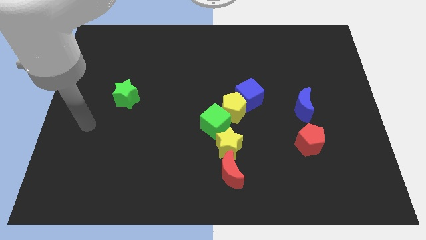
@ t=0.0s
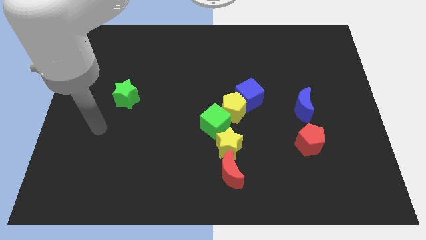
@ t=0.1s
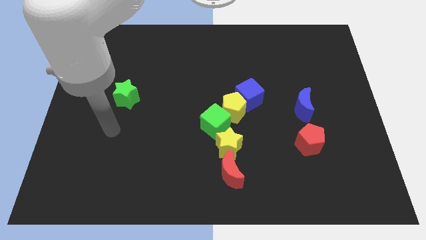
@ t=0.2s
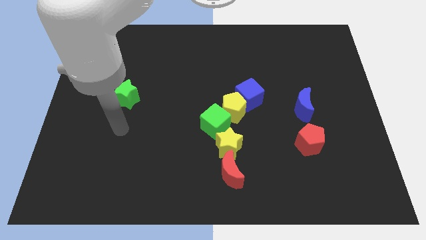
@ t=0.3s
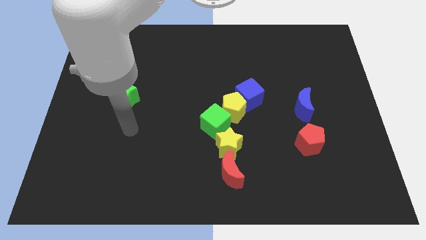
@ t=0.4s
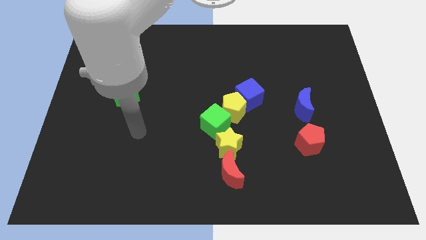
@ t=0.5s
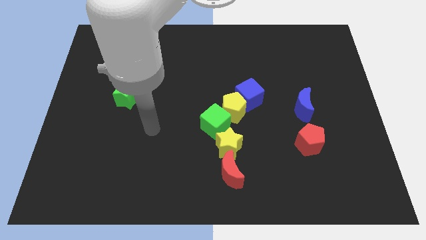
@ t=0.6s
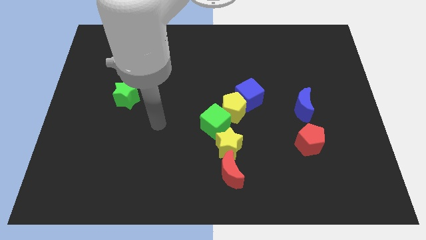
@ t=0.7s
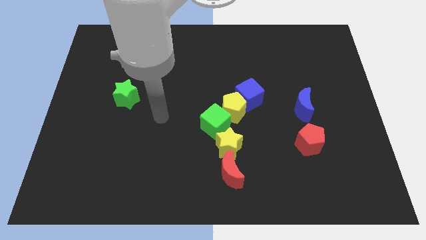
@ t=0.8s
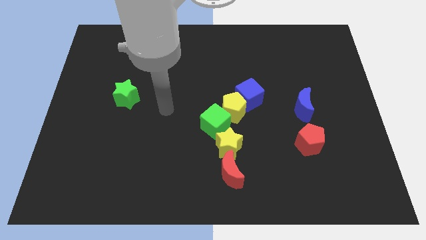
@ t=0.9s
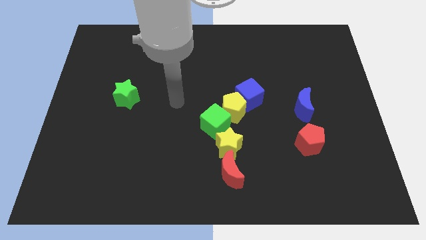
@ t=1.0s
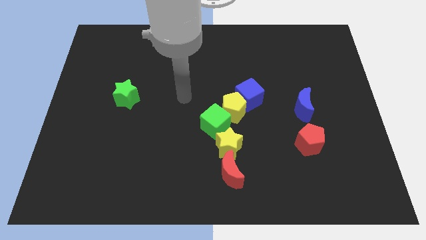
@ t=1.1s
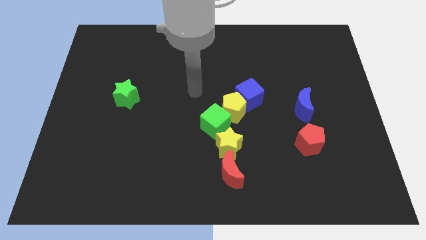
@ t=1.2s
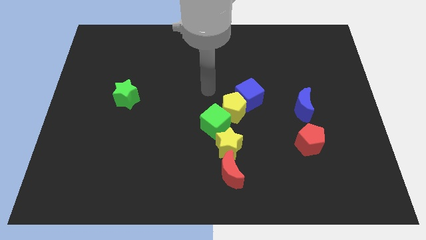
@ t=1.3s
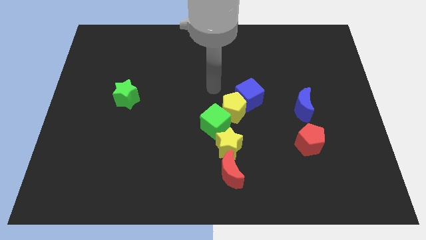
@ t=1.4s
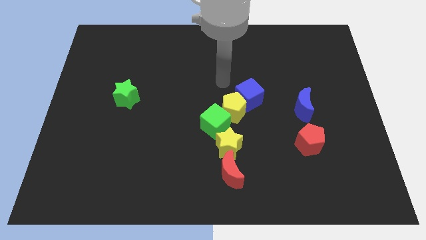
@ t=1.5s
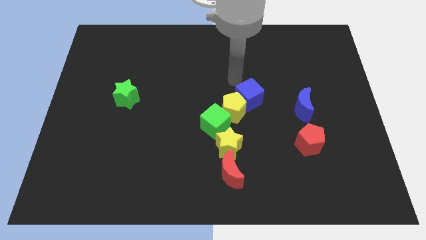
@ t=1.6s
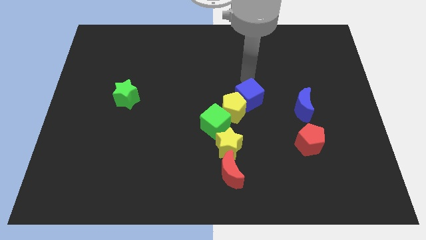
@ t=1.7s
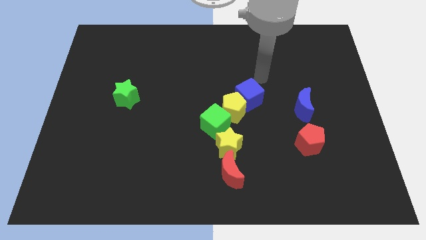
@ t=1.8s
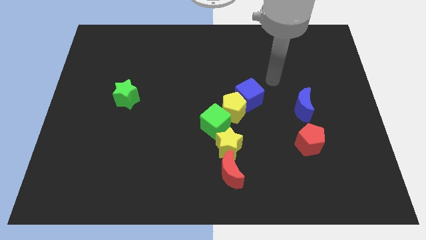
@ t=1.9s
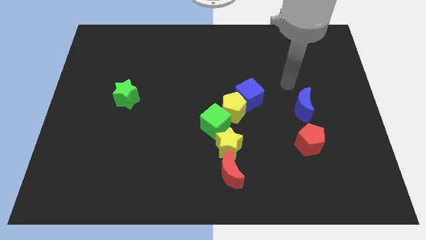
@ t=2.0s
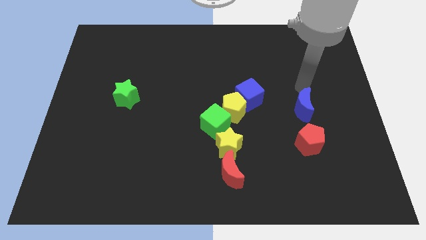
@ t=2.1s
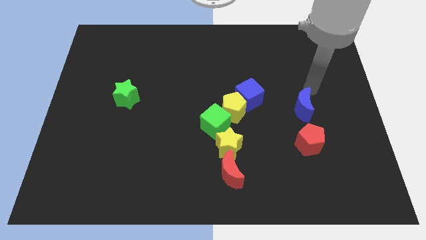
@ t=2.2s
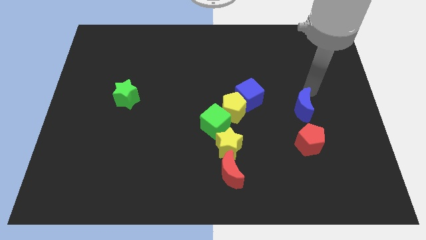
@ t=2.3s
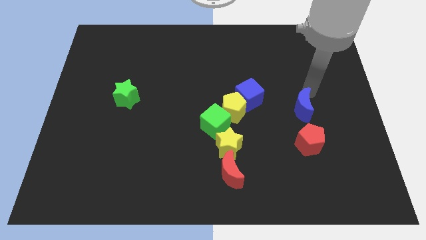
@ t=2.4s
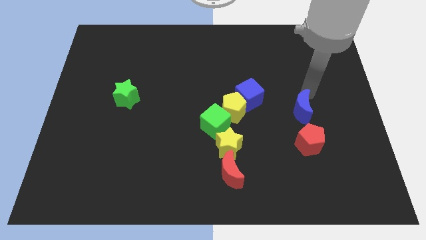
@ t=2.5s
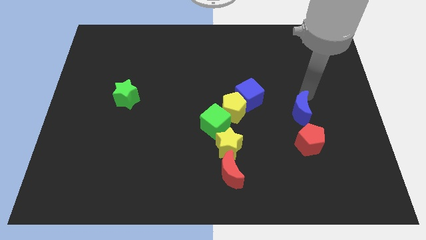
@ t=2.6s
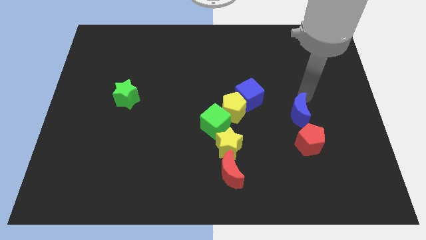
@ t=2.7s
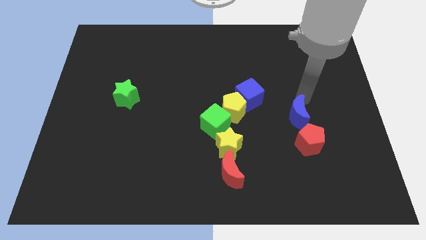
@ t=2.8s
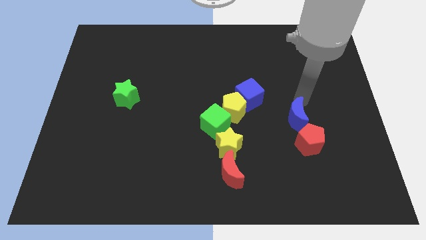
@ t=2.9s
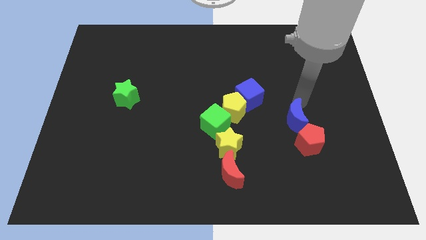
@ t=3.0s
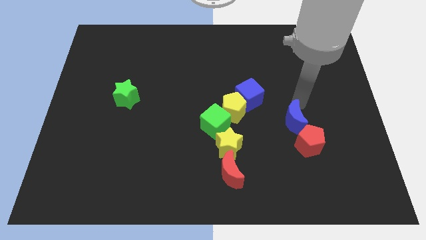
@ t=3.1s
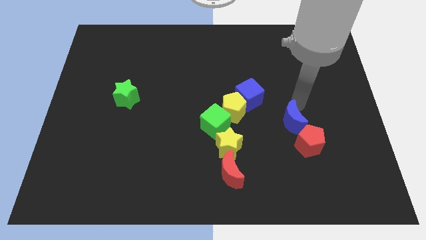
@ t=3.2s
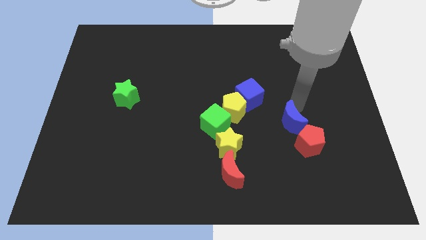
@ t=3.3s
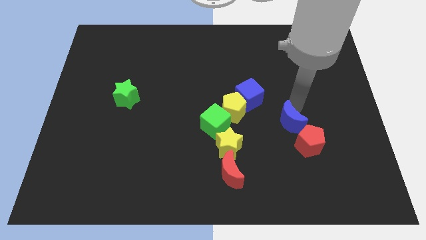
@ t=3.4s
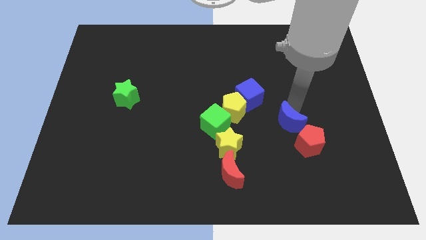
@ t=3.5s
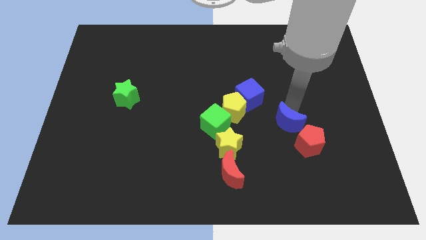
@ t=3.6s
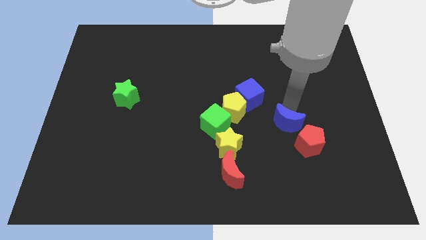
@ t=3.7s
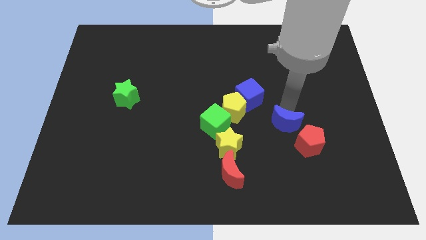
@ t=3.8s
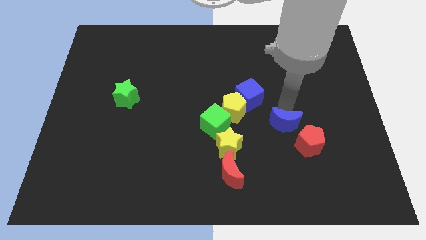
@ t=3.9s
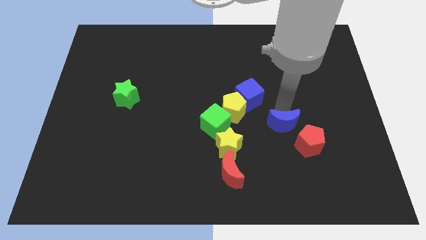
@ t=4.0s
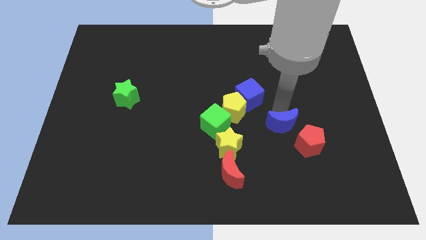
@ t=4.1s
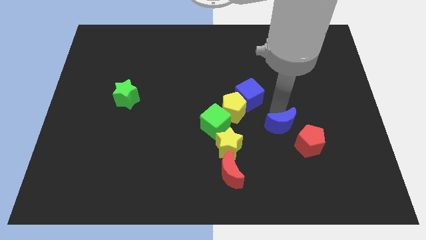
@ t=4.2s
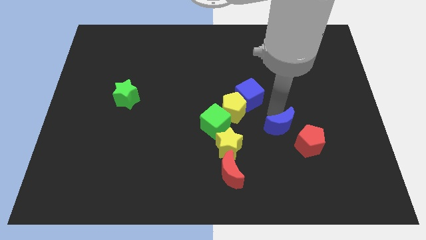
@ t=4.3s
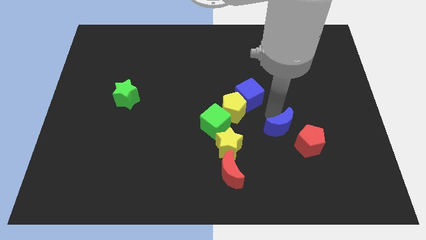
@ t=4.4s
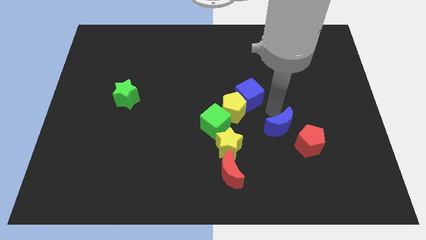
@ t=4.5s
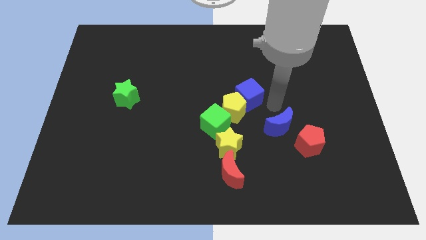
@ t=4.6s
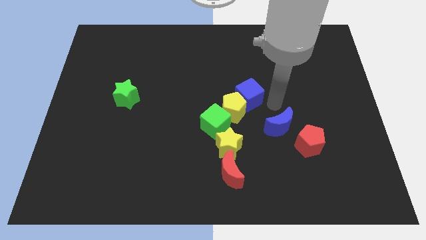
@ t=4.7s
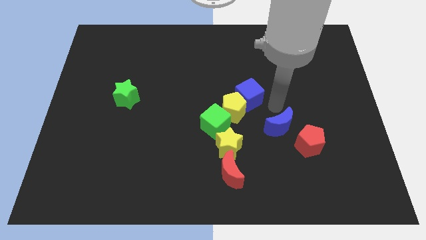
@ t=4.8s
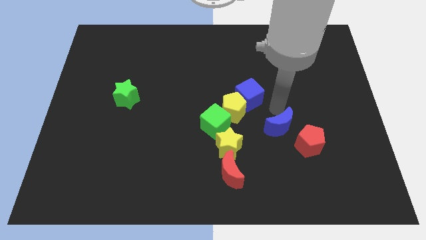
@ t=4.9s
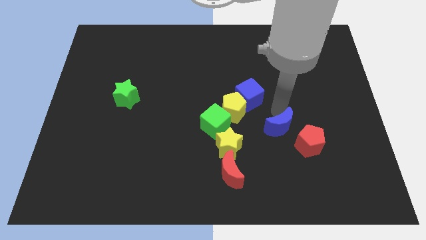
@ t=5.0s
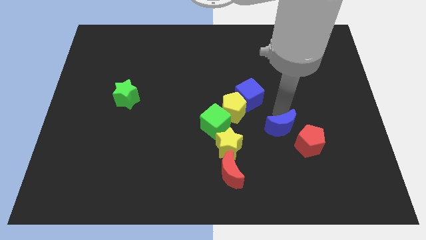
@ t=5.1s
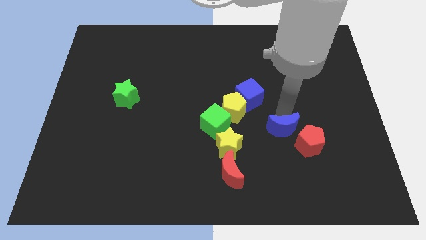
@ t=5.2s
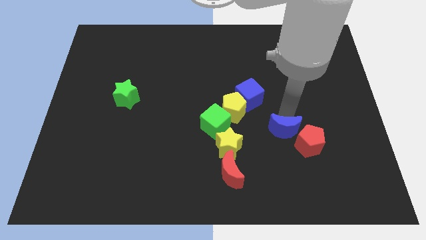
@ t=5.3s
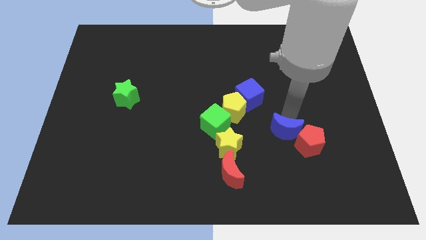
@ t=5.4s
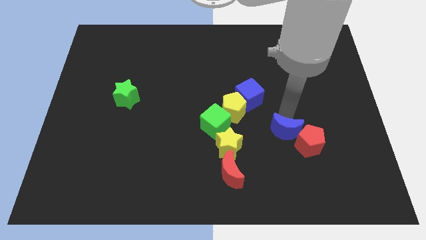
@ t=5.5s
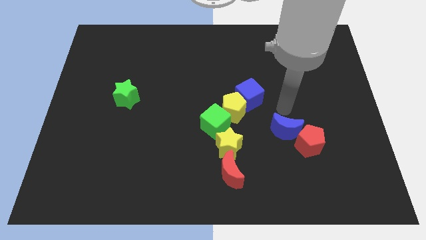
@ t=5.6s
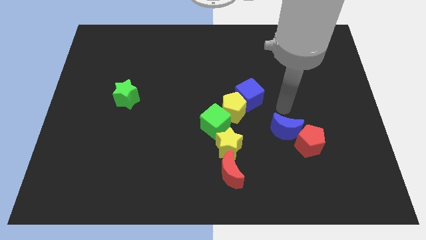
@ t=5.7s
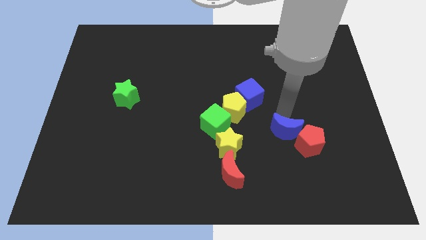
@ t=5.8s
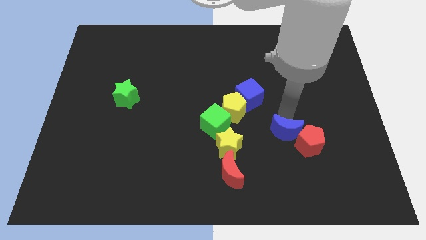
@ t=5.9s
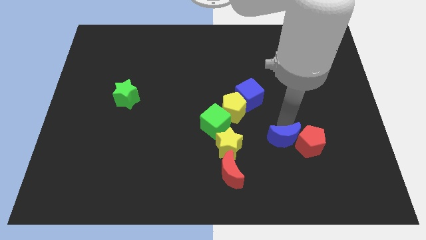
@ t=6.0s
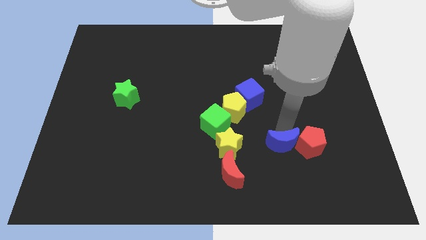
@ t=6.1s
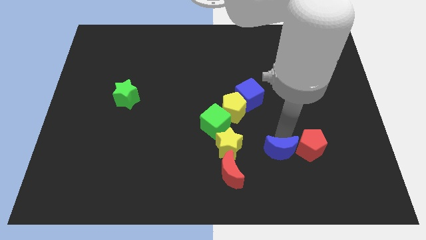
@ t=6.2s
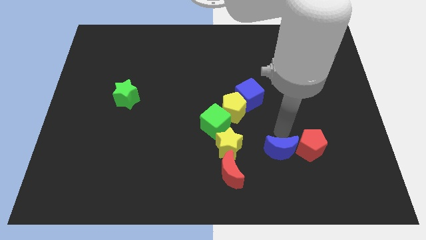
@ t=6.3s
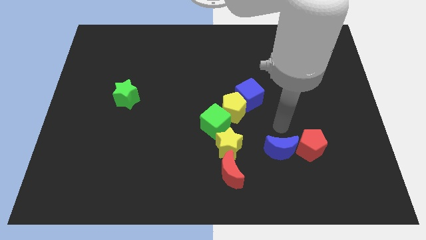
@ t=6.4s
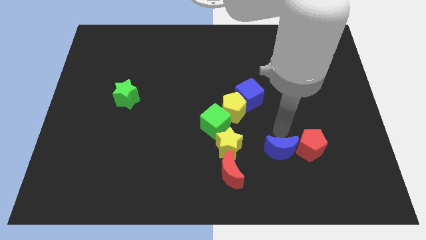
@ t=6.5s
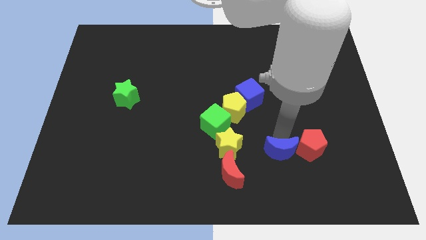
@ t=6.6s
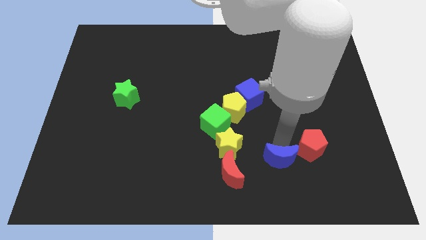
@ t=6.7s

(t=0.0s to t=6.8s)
put the blue moon right of the red moon

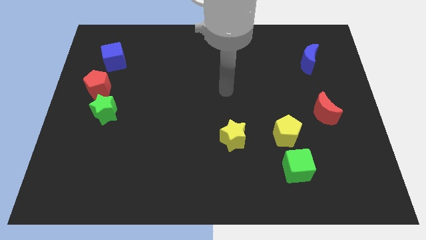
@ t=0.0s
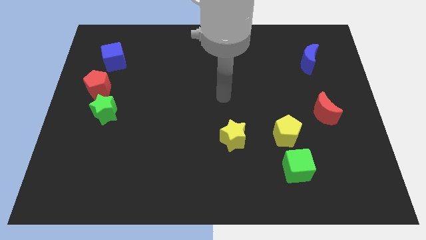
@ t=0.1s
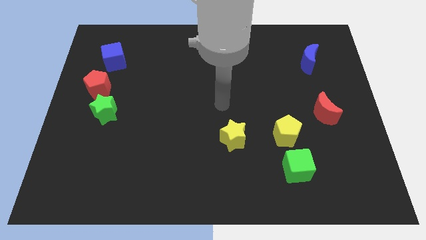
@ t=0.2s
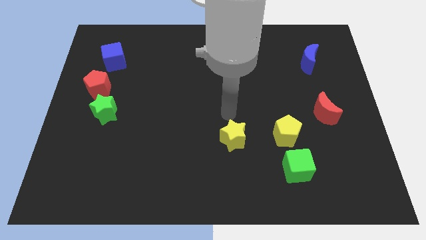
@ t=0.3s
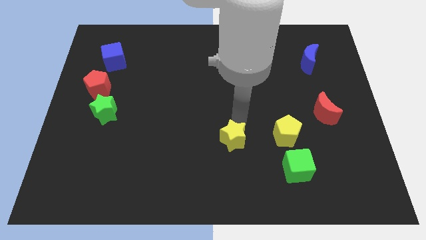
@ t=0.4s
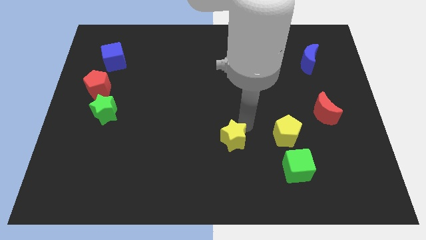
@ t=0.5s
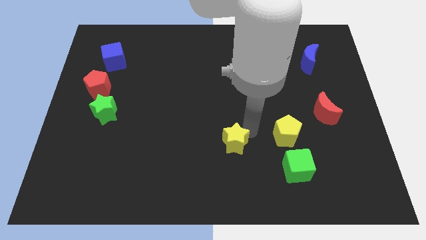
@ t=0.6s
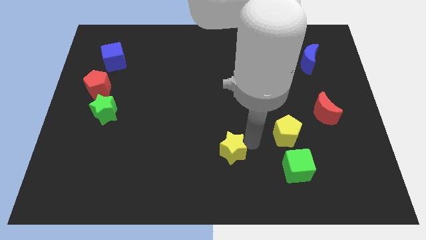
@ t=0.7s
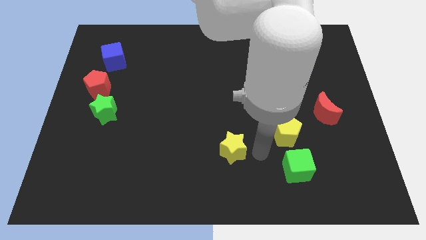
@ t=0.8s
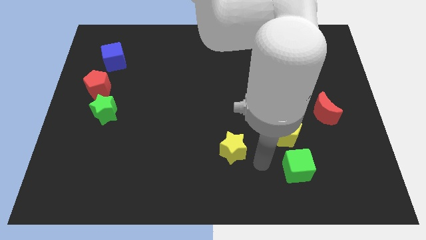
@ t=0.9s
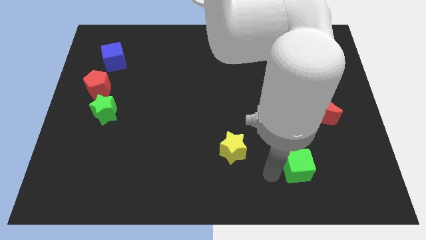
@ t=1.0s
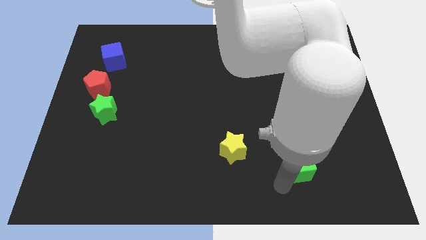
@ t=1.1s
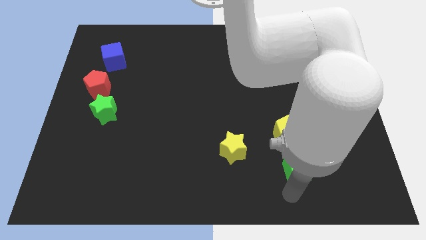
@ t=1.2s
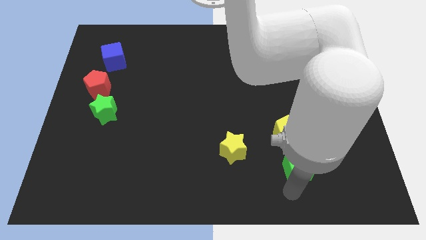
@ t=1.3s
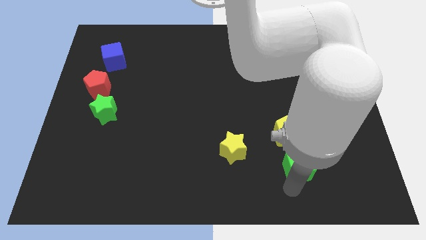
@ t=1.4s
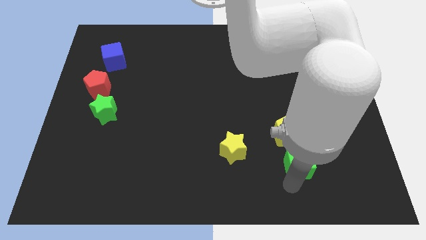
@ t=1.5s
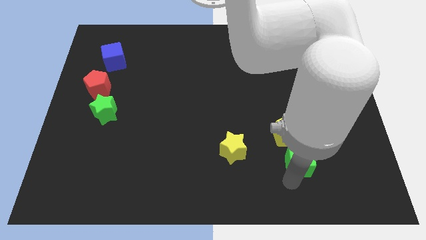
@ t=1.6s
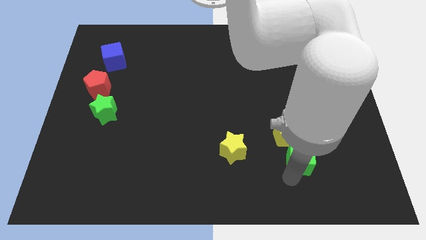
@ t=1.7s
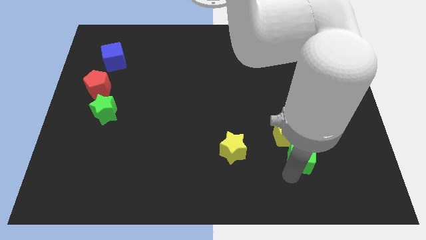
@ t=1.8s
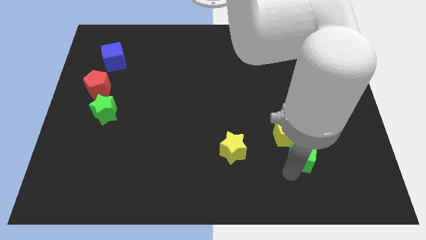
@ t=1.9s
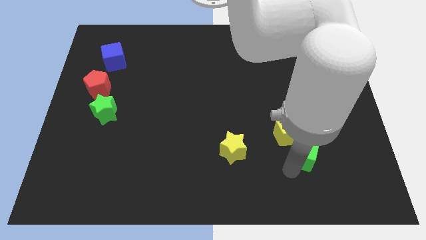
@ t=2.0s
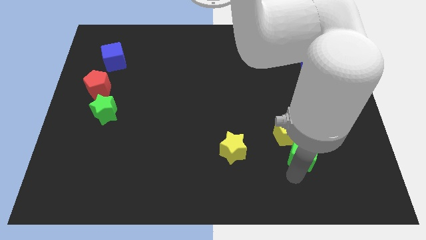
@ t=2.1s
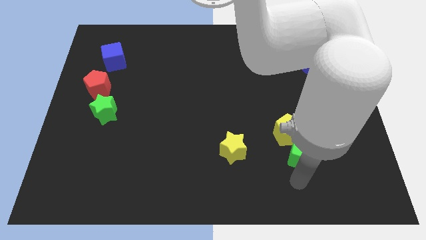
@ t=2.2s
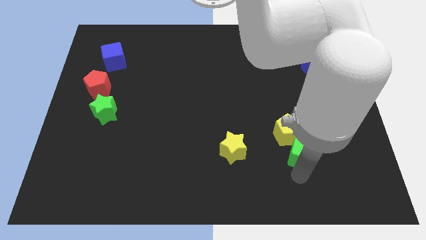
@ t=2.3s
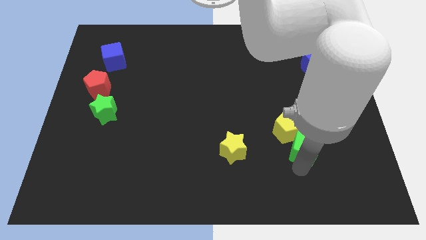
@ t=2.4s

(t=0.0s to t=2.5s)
push the green cube to the bottom left of the red moon
